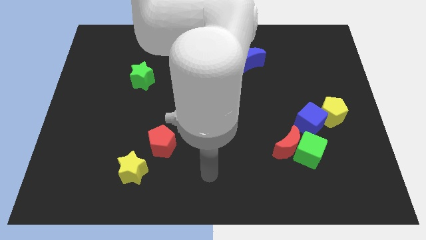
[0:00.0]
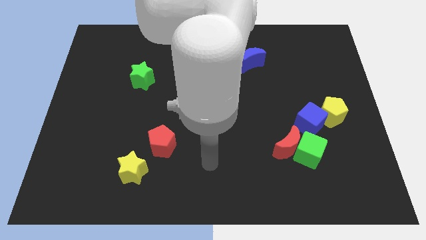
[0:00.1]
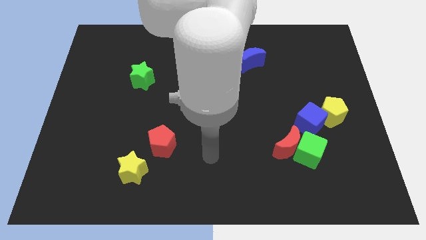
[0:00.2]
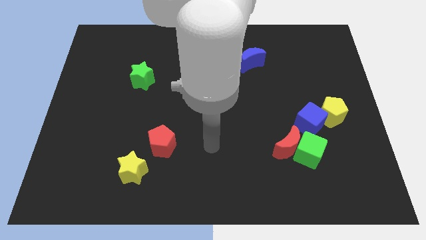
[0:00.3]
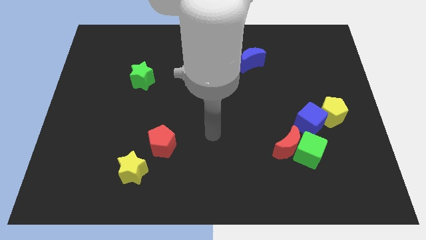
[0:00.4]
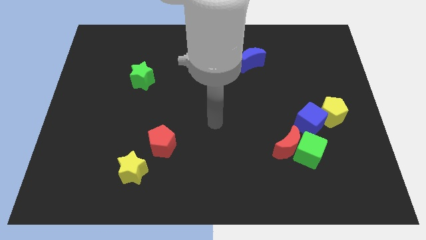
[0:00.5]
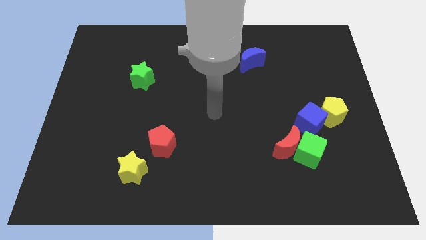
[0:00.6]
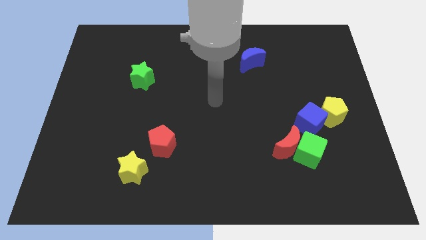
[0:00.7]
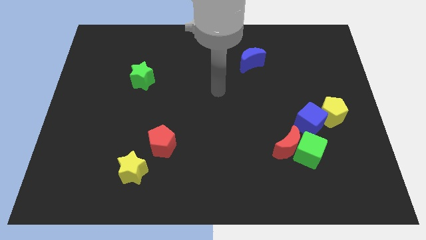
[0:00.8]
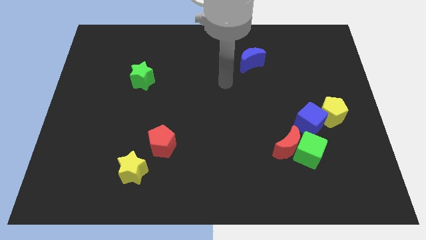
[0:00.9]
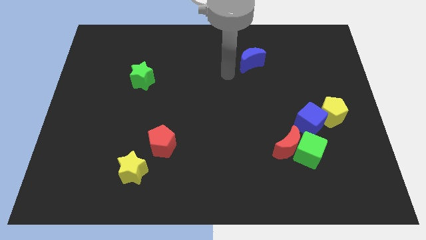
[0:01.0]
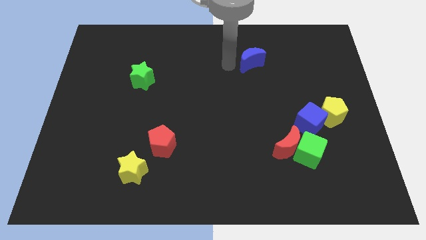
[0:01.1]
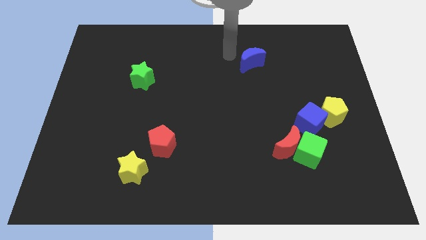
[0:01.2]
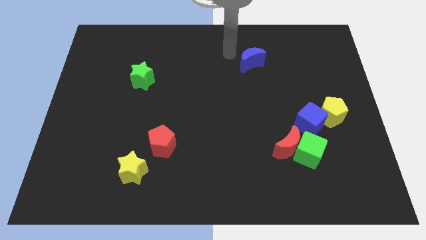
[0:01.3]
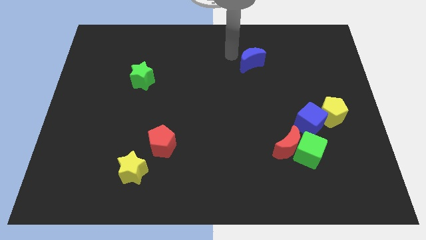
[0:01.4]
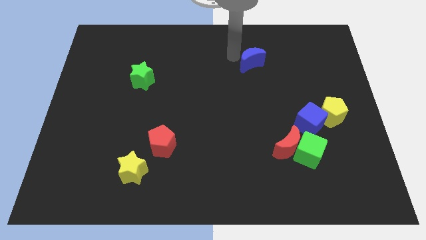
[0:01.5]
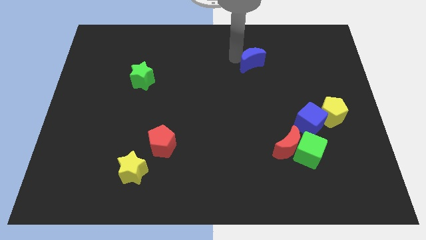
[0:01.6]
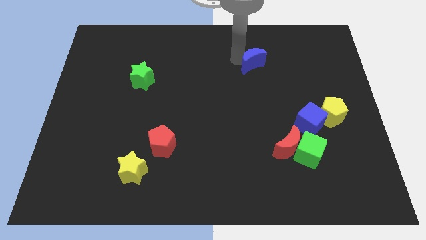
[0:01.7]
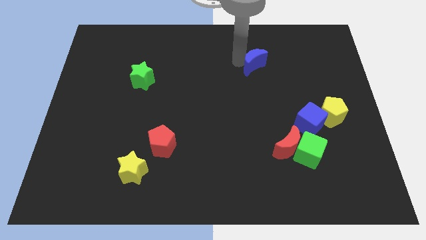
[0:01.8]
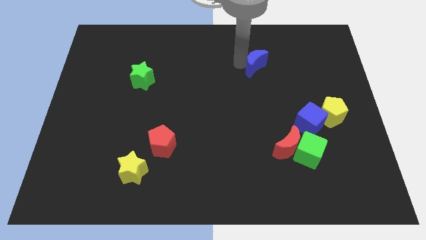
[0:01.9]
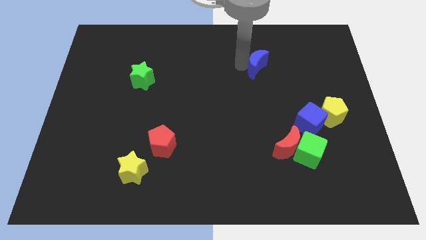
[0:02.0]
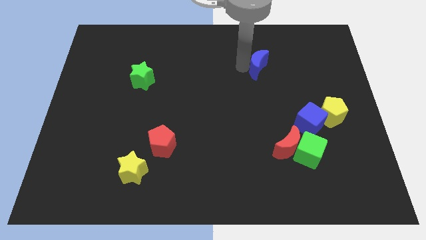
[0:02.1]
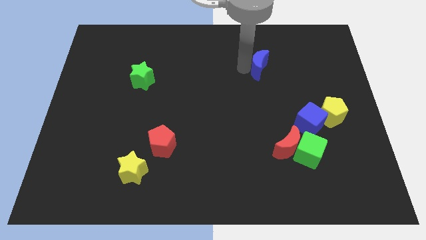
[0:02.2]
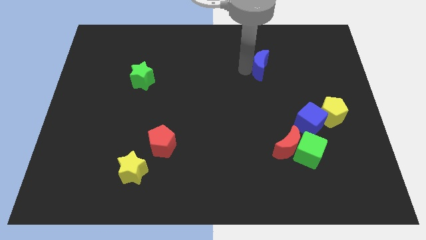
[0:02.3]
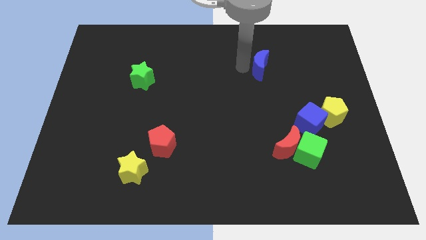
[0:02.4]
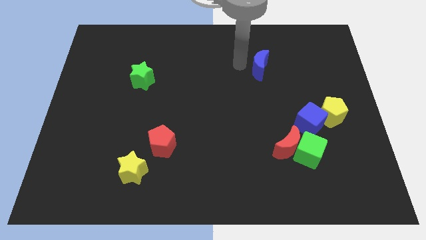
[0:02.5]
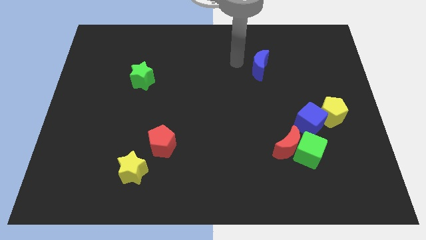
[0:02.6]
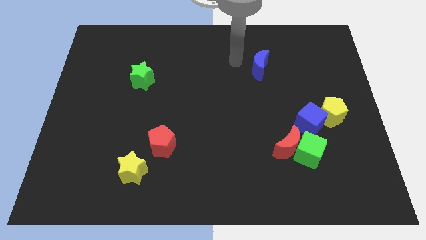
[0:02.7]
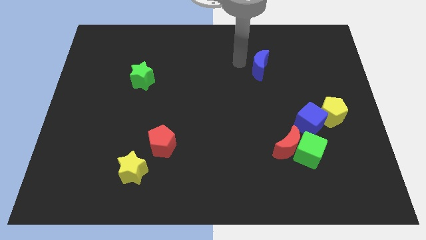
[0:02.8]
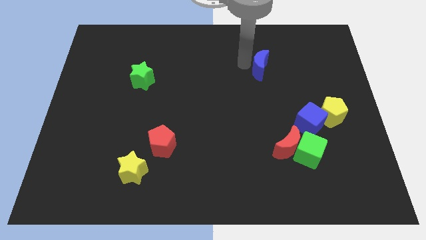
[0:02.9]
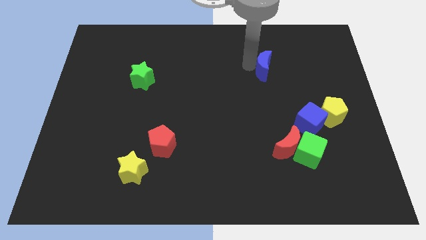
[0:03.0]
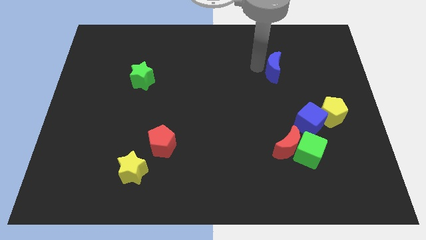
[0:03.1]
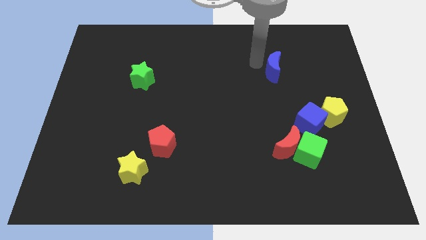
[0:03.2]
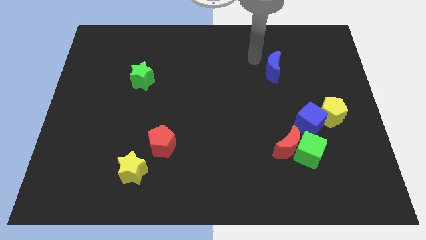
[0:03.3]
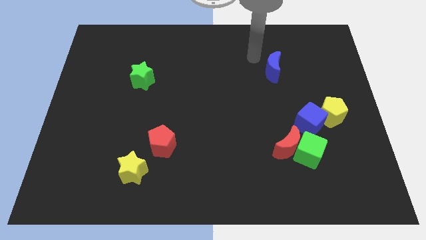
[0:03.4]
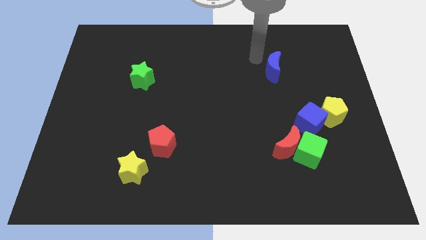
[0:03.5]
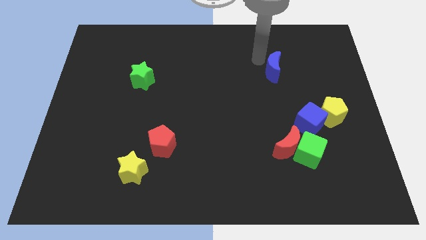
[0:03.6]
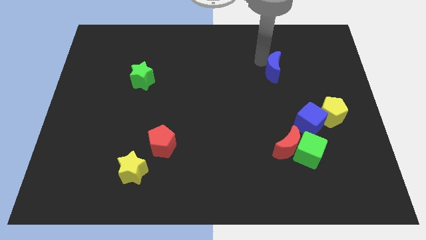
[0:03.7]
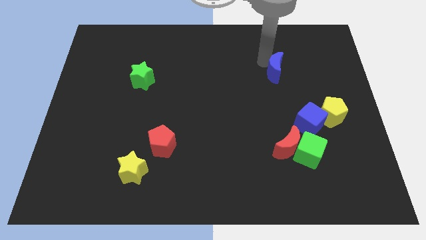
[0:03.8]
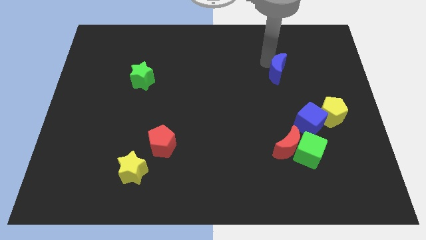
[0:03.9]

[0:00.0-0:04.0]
slide the blue moon down and right a little

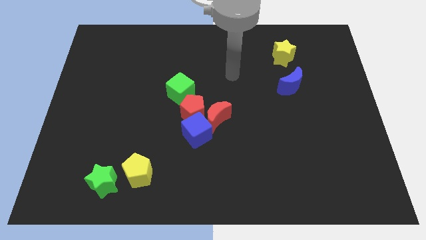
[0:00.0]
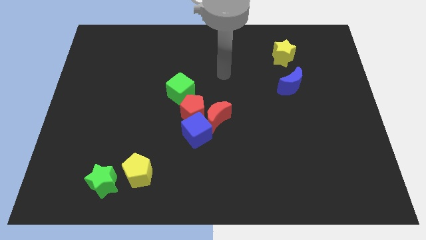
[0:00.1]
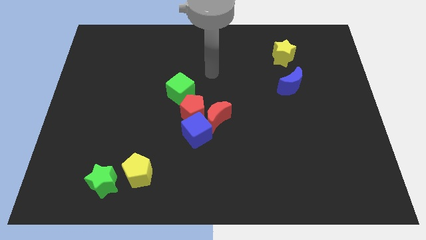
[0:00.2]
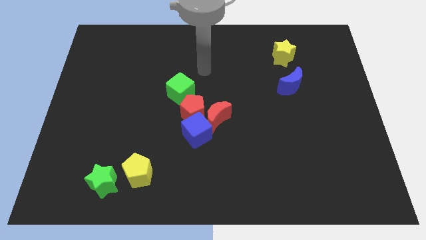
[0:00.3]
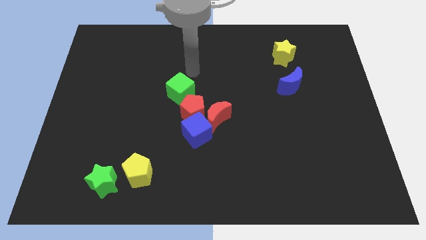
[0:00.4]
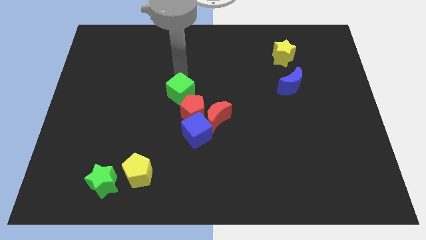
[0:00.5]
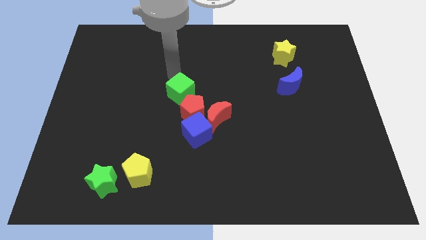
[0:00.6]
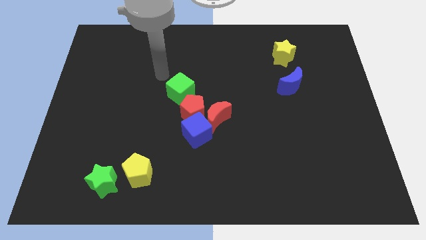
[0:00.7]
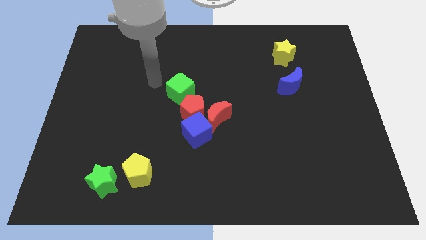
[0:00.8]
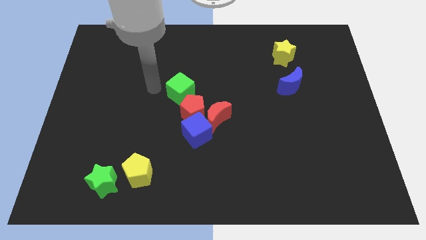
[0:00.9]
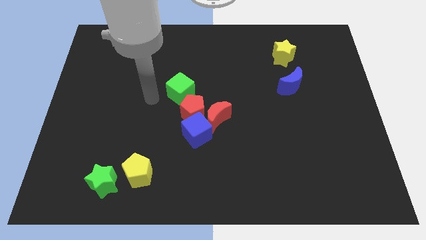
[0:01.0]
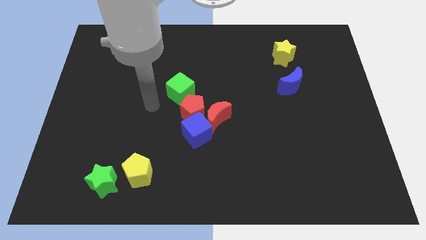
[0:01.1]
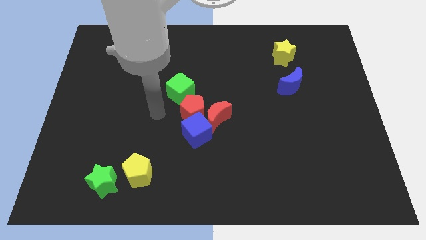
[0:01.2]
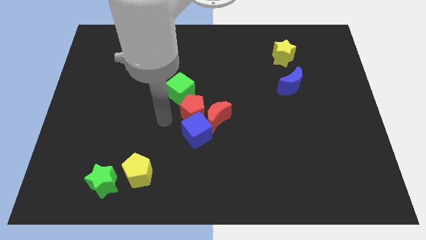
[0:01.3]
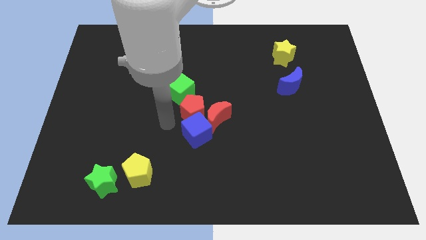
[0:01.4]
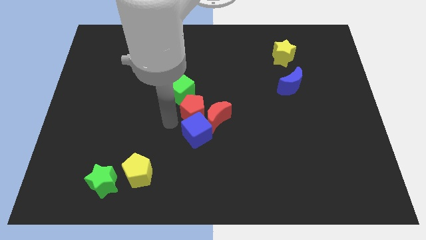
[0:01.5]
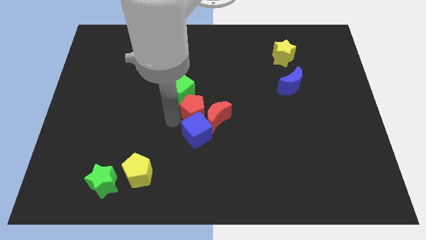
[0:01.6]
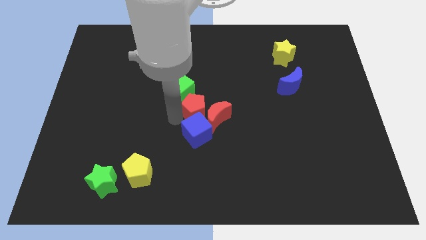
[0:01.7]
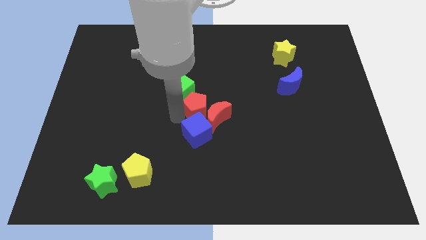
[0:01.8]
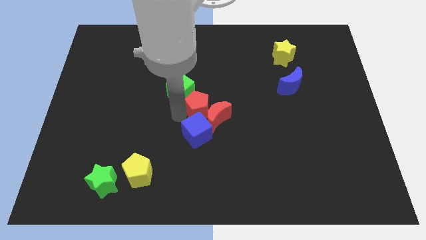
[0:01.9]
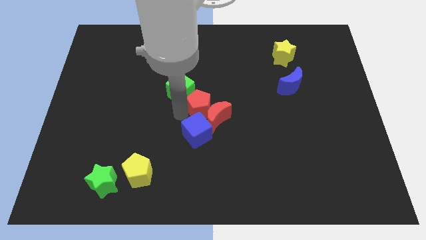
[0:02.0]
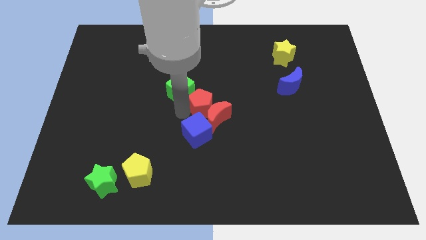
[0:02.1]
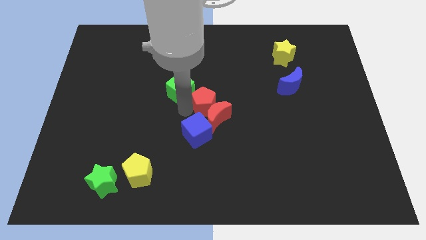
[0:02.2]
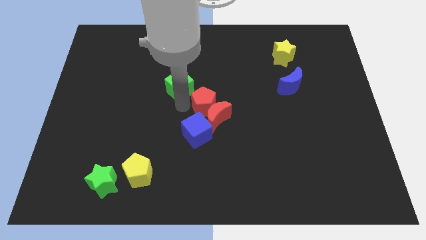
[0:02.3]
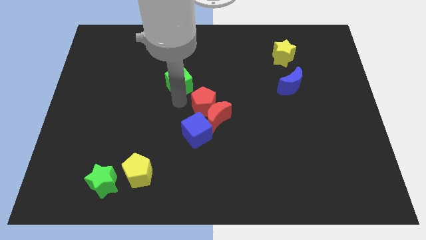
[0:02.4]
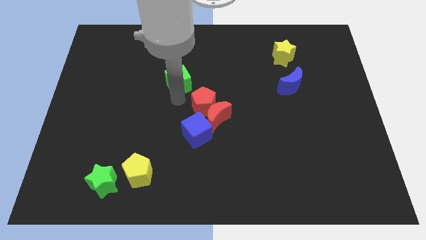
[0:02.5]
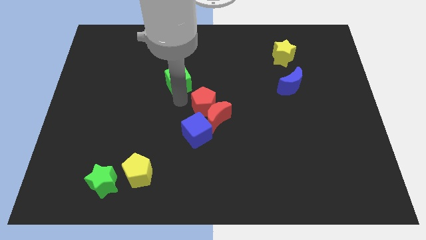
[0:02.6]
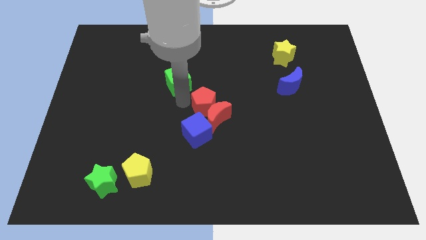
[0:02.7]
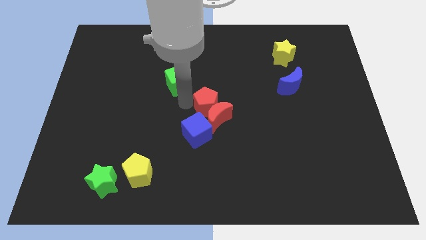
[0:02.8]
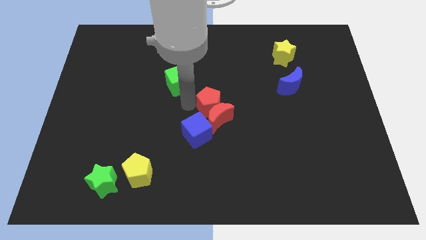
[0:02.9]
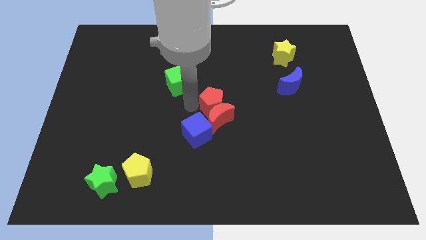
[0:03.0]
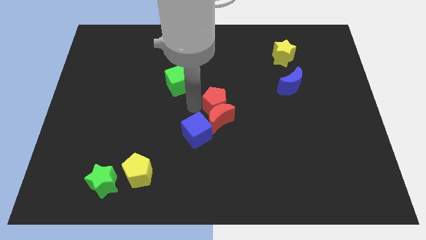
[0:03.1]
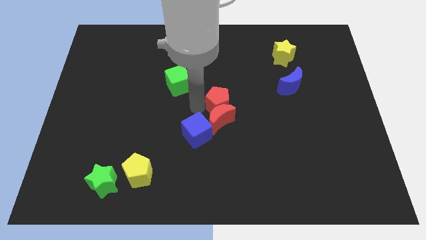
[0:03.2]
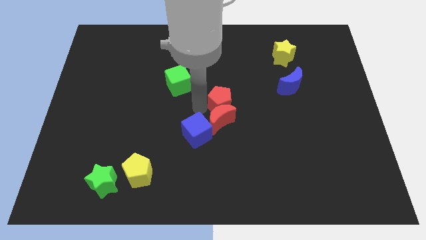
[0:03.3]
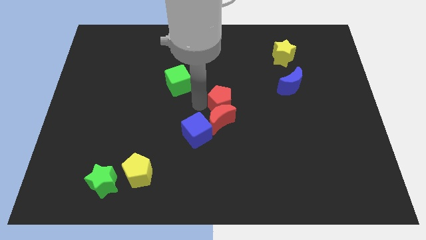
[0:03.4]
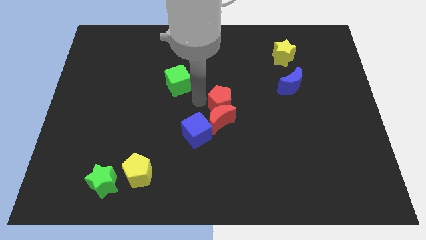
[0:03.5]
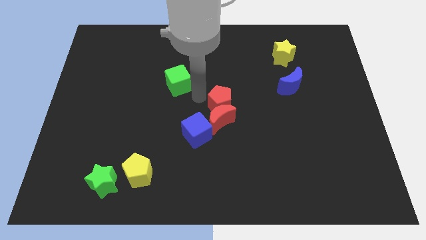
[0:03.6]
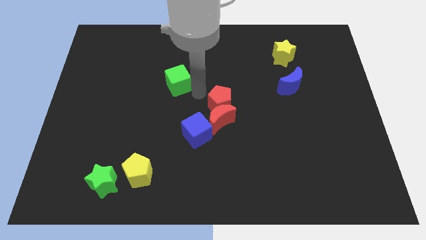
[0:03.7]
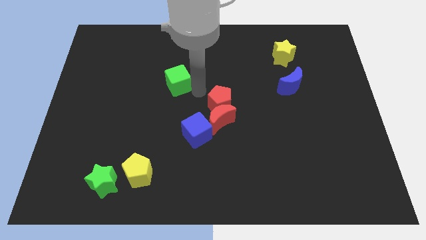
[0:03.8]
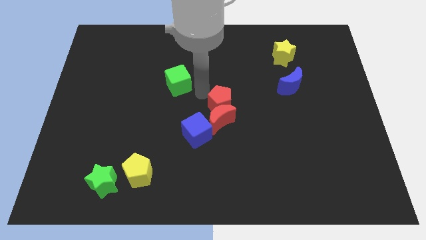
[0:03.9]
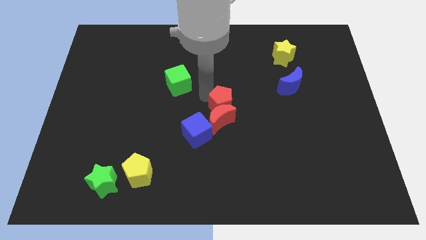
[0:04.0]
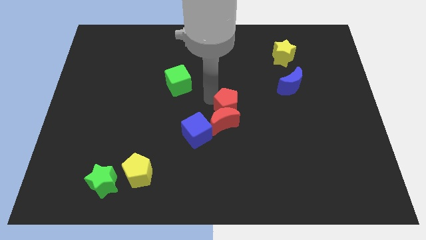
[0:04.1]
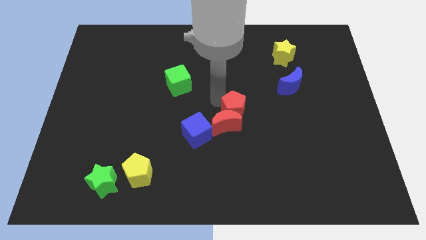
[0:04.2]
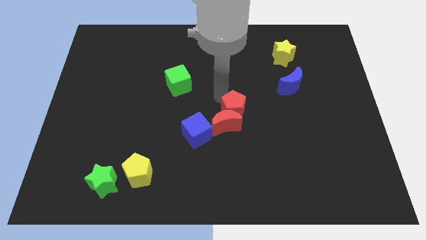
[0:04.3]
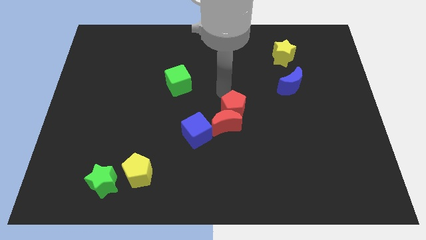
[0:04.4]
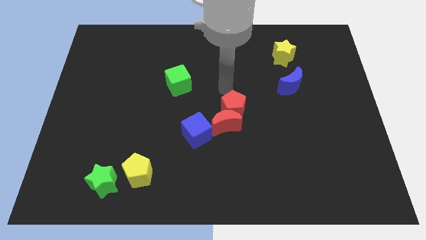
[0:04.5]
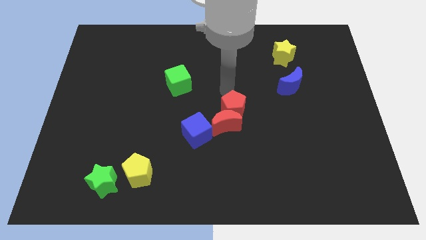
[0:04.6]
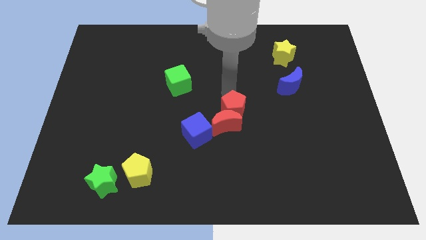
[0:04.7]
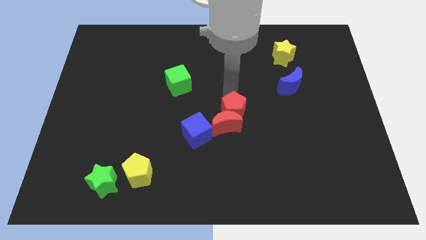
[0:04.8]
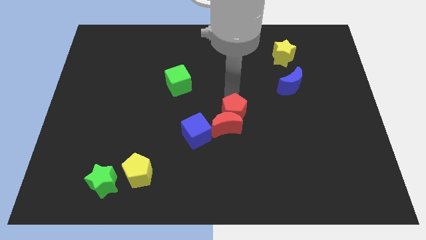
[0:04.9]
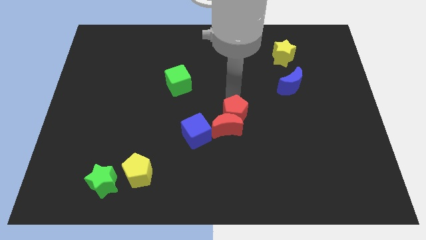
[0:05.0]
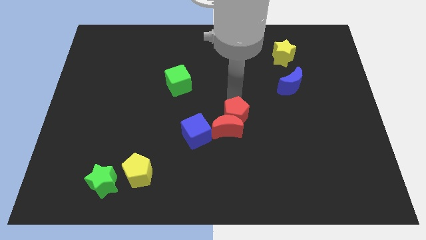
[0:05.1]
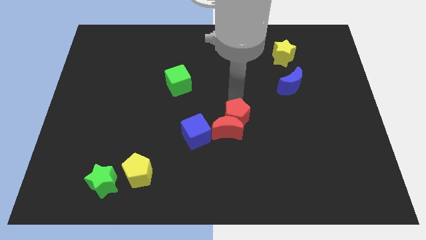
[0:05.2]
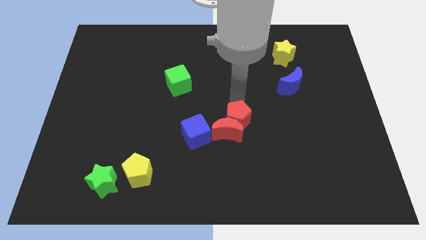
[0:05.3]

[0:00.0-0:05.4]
move the red pentagon slightly down and to the right diagonally
